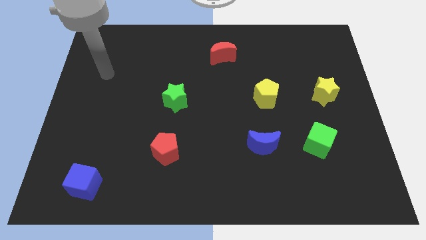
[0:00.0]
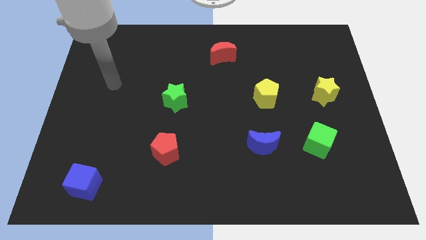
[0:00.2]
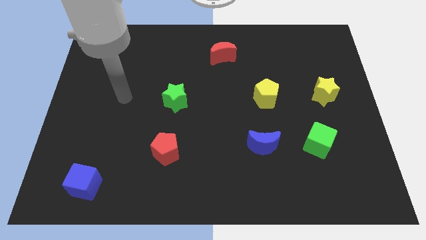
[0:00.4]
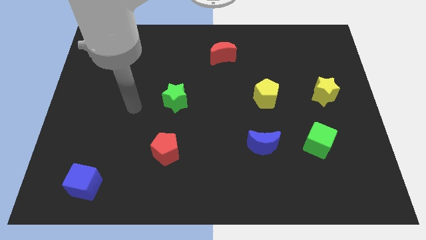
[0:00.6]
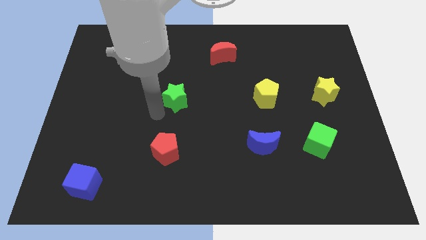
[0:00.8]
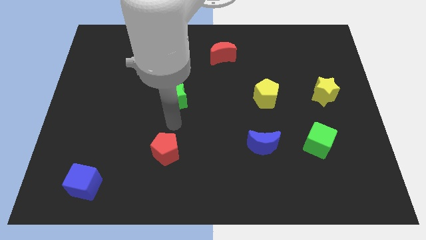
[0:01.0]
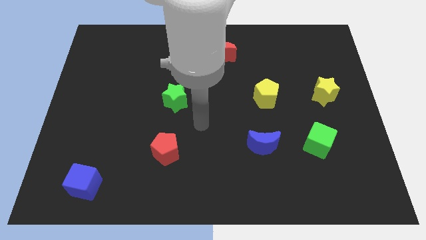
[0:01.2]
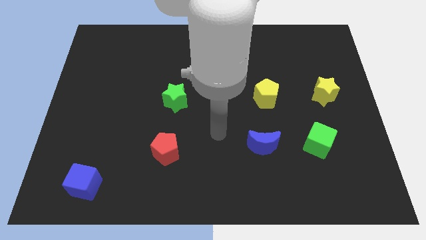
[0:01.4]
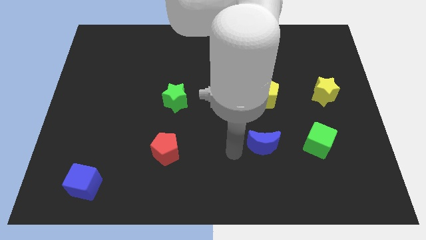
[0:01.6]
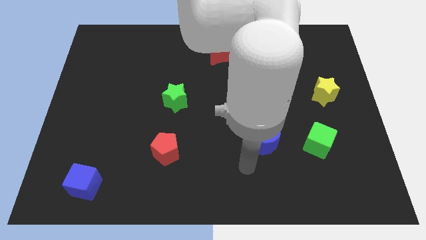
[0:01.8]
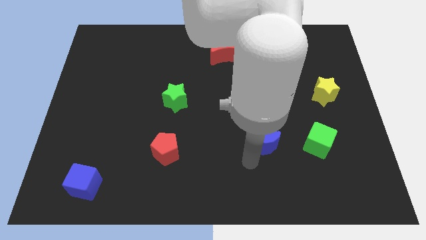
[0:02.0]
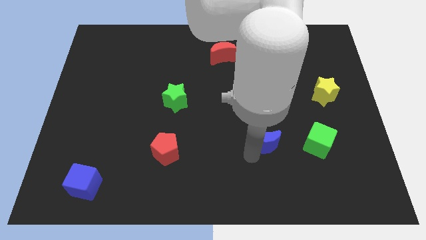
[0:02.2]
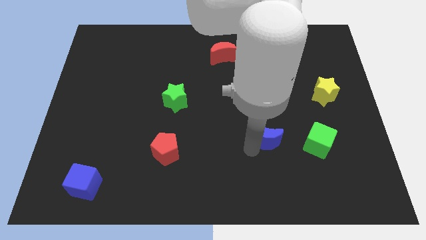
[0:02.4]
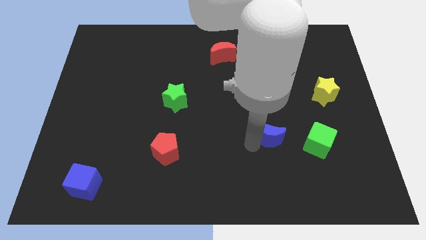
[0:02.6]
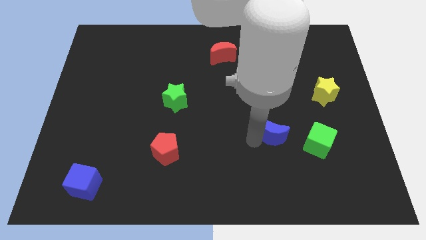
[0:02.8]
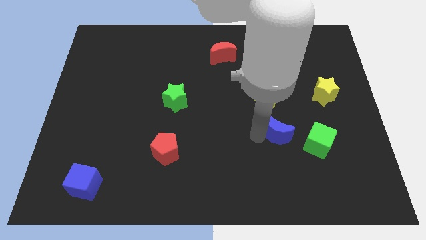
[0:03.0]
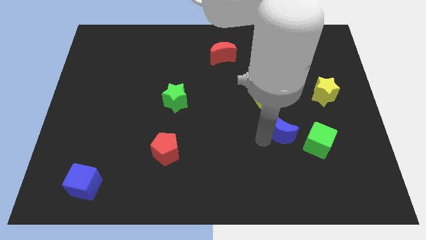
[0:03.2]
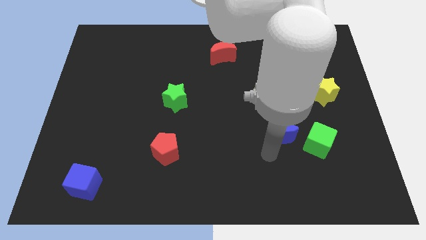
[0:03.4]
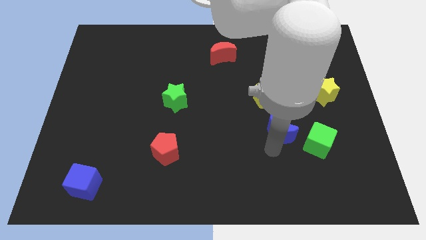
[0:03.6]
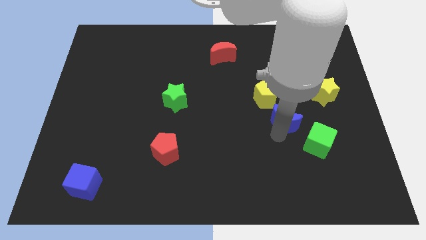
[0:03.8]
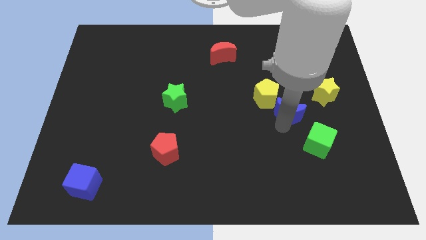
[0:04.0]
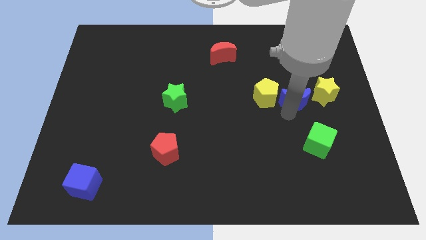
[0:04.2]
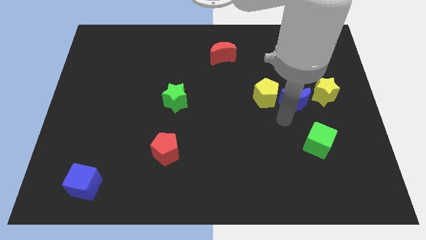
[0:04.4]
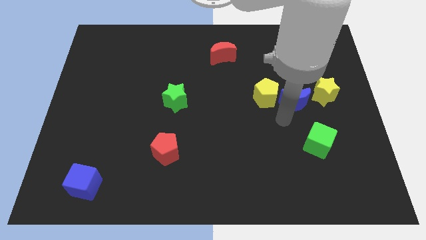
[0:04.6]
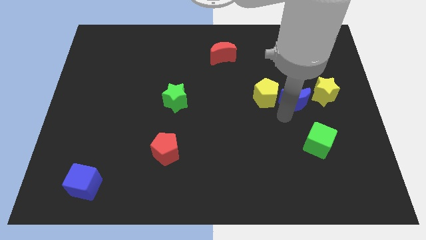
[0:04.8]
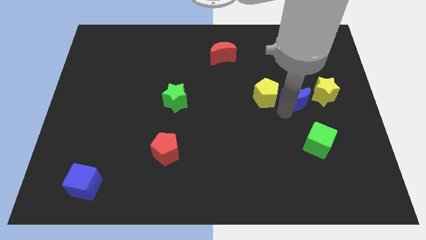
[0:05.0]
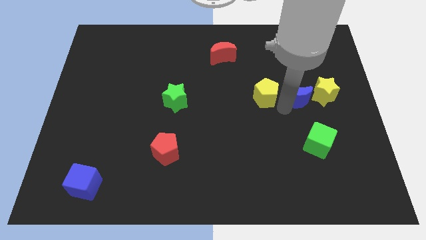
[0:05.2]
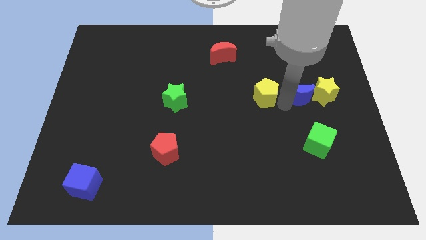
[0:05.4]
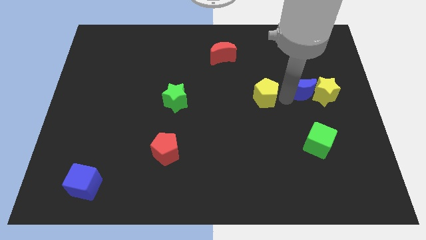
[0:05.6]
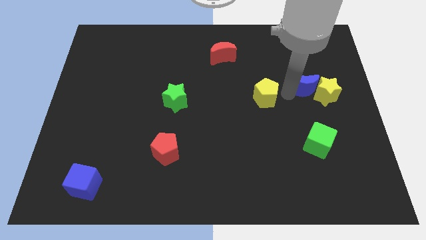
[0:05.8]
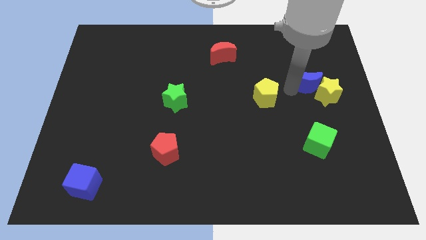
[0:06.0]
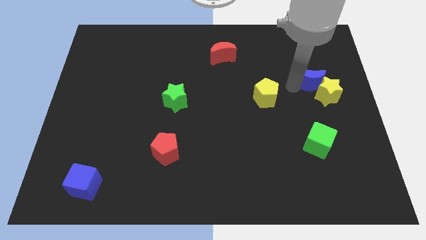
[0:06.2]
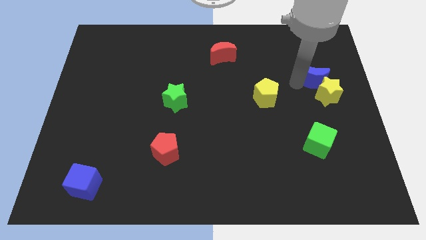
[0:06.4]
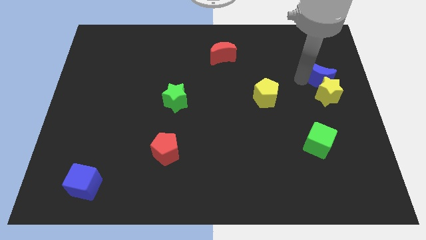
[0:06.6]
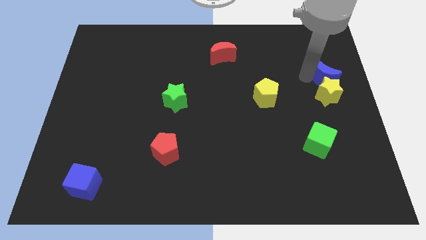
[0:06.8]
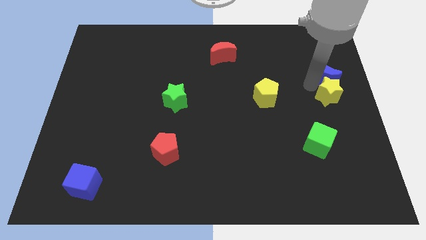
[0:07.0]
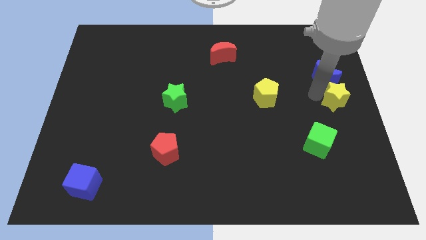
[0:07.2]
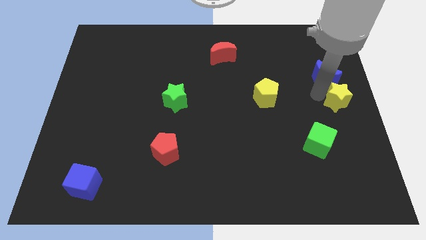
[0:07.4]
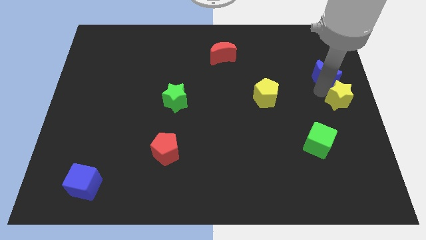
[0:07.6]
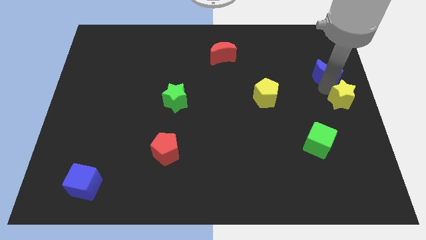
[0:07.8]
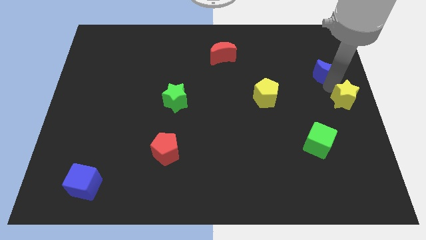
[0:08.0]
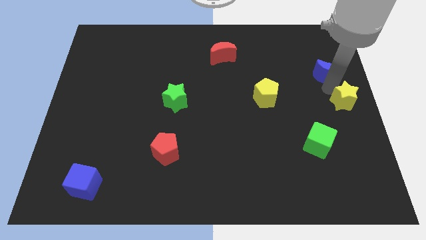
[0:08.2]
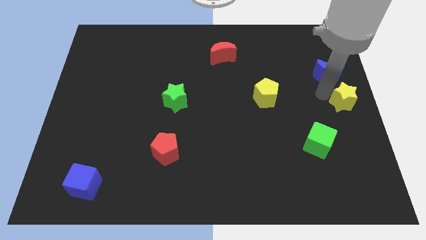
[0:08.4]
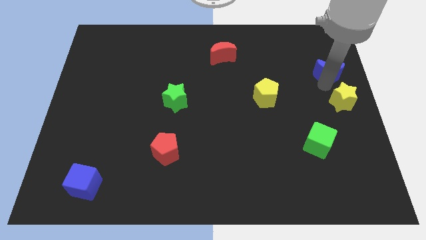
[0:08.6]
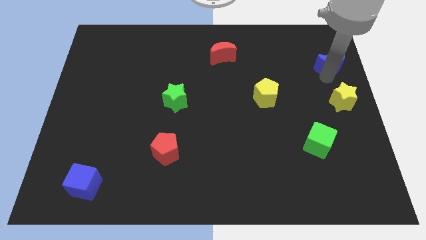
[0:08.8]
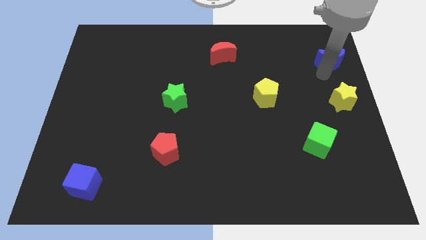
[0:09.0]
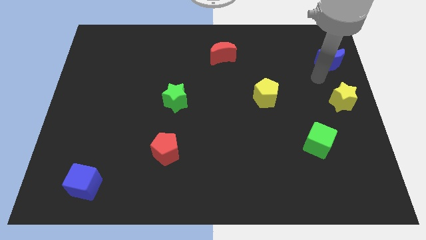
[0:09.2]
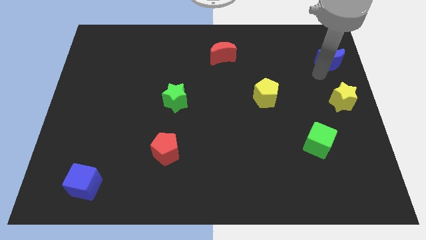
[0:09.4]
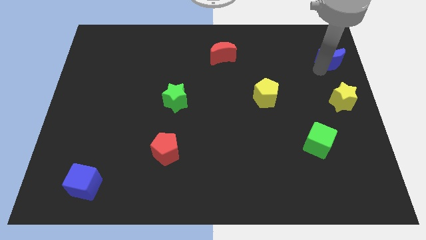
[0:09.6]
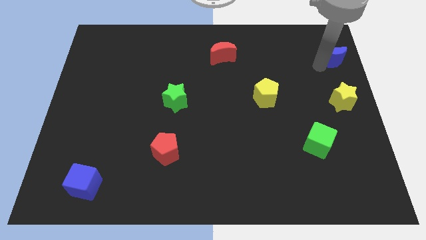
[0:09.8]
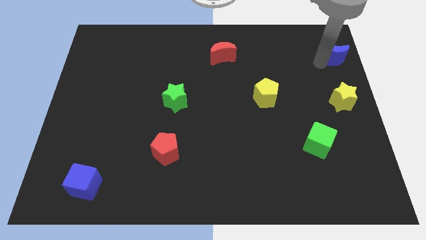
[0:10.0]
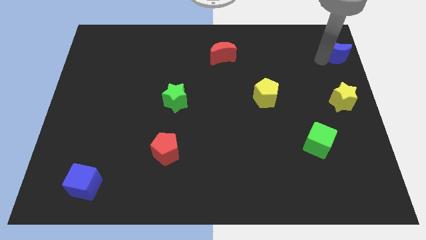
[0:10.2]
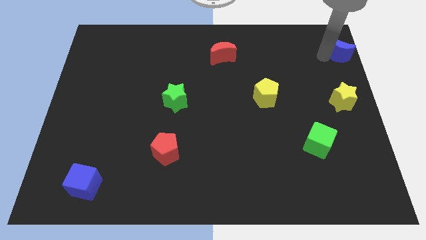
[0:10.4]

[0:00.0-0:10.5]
put the blue moon to the top right

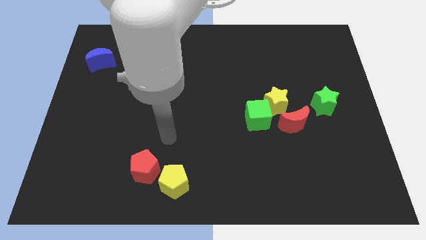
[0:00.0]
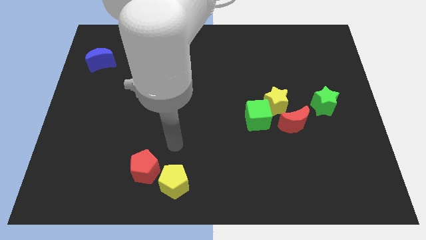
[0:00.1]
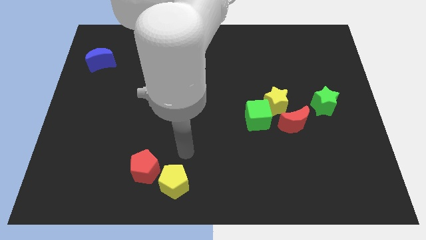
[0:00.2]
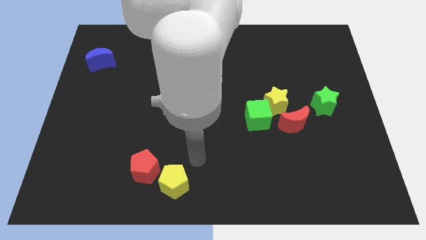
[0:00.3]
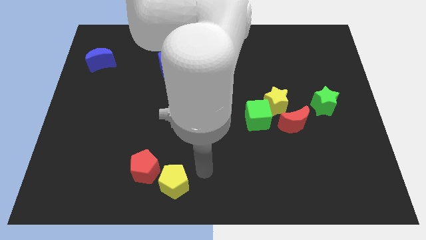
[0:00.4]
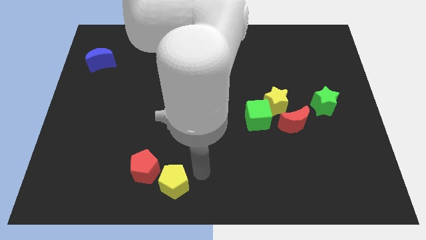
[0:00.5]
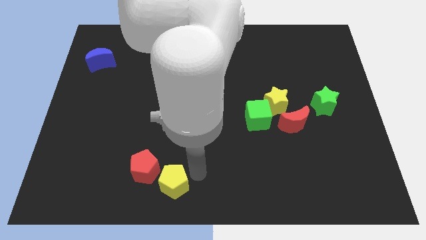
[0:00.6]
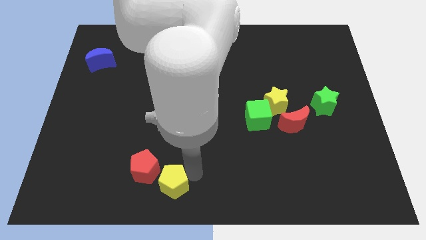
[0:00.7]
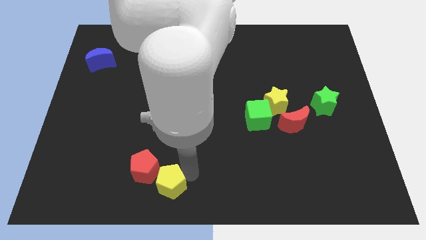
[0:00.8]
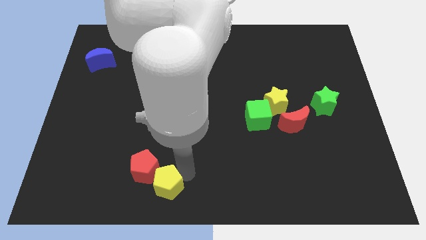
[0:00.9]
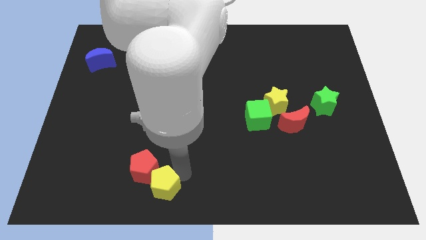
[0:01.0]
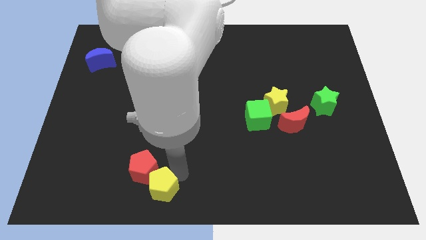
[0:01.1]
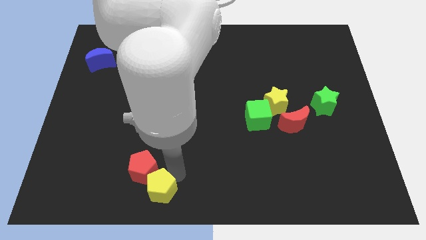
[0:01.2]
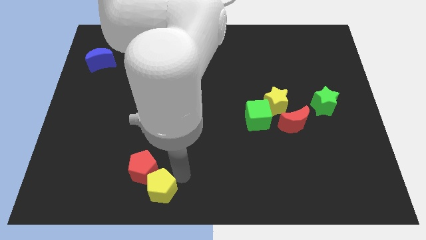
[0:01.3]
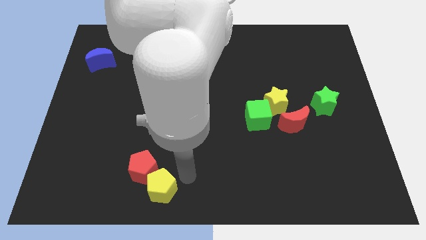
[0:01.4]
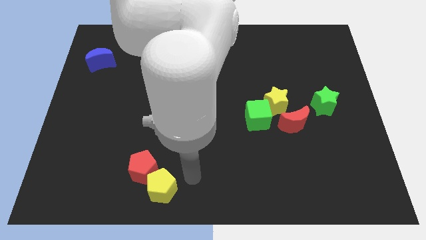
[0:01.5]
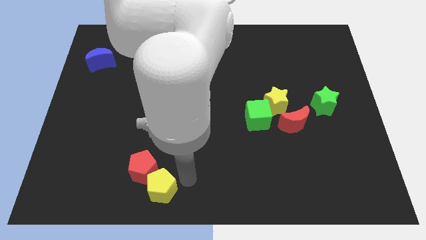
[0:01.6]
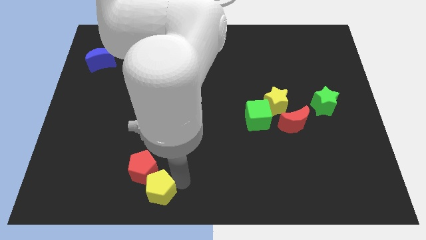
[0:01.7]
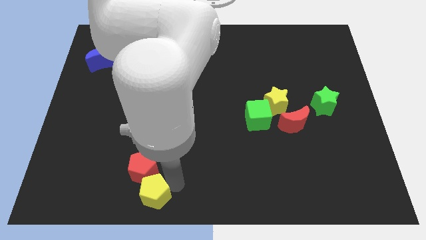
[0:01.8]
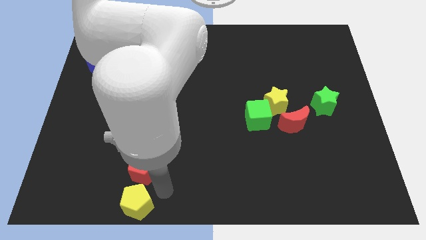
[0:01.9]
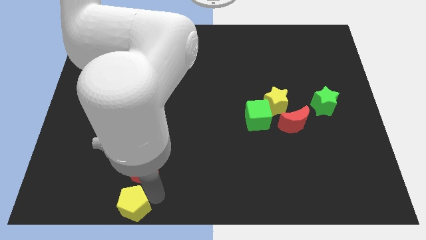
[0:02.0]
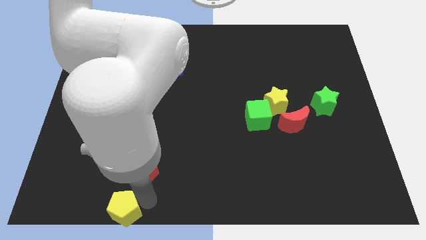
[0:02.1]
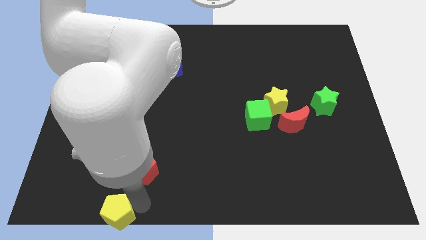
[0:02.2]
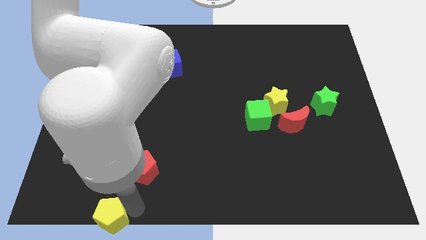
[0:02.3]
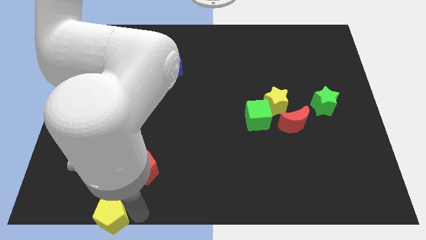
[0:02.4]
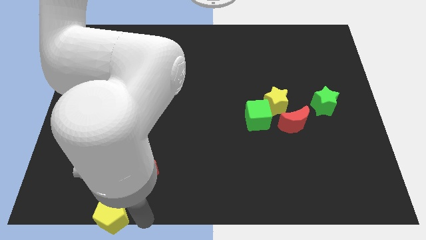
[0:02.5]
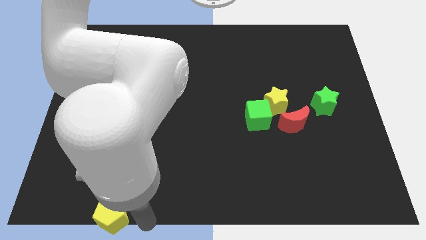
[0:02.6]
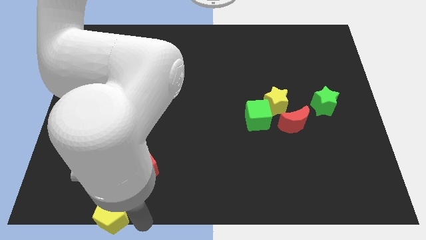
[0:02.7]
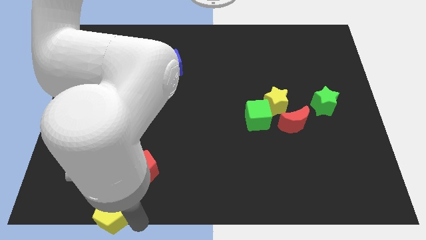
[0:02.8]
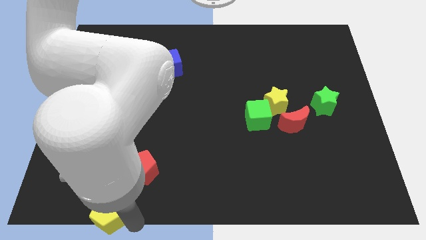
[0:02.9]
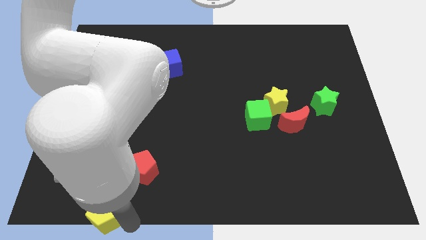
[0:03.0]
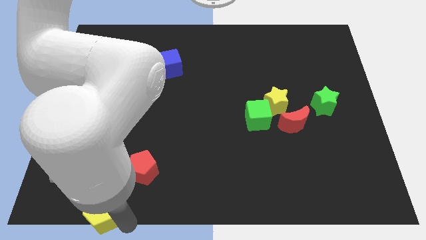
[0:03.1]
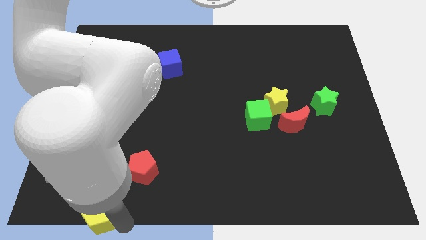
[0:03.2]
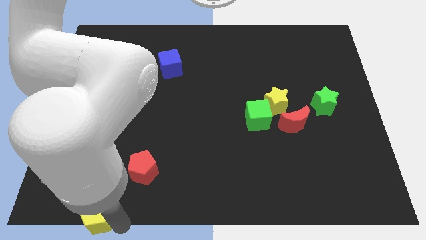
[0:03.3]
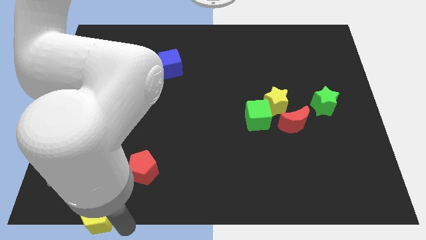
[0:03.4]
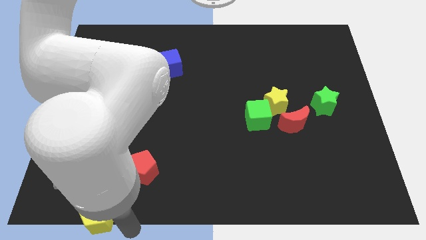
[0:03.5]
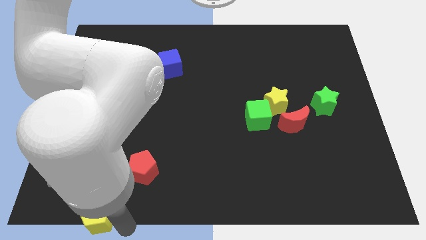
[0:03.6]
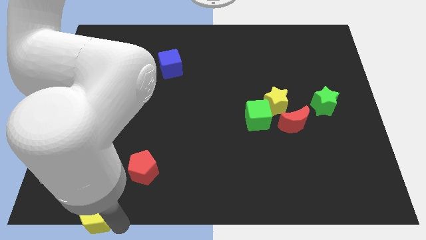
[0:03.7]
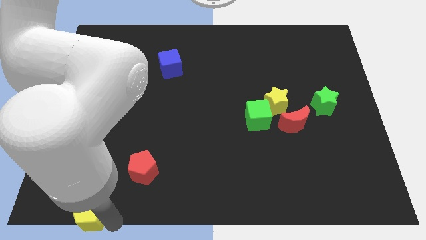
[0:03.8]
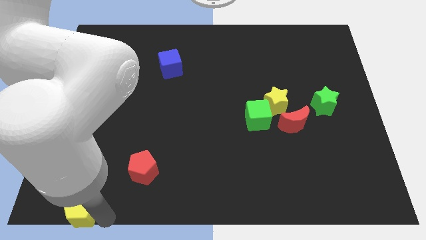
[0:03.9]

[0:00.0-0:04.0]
slide the yellow pentagon to the bottom left corner
